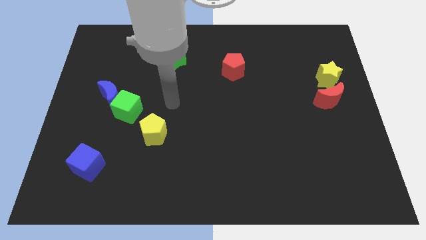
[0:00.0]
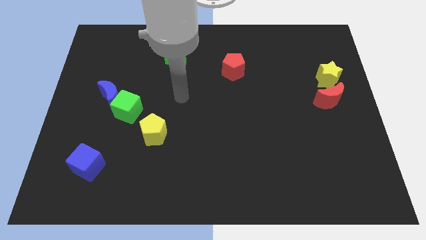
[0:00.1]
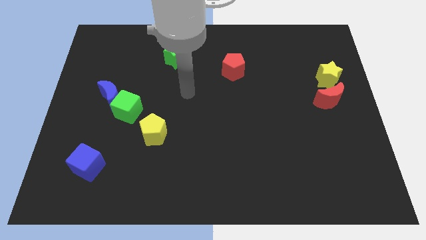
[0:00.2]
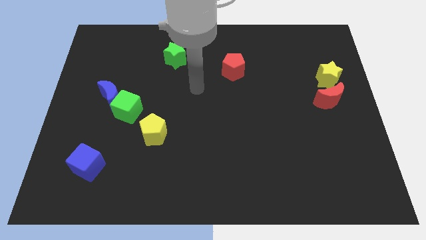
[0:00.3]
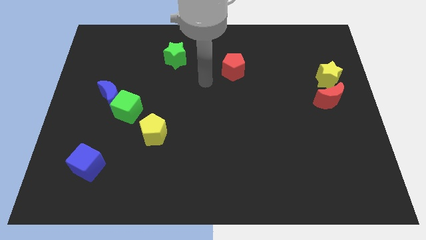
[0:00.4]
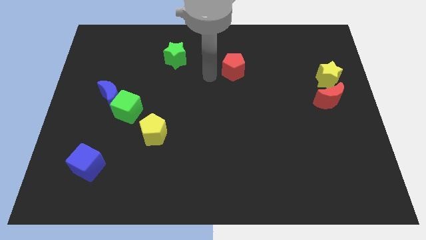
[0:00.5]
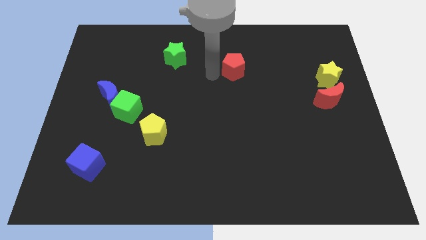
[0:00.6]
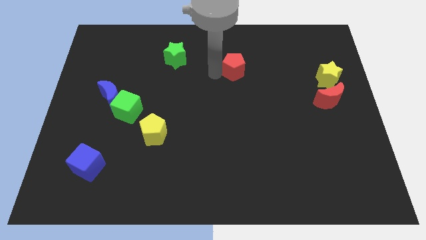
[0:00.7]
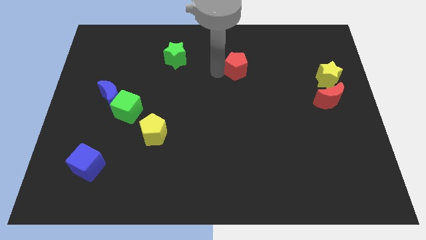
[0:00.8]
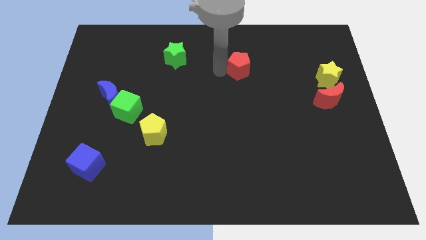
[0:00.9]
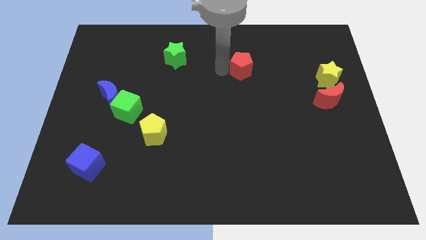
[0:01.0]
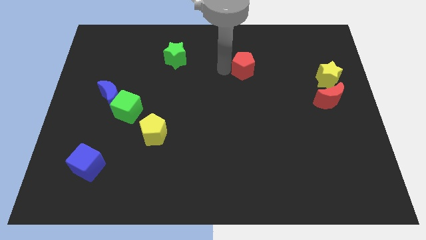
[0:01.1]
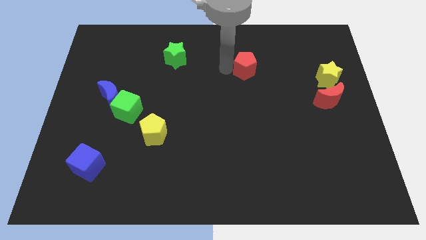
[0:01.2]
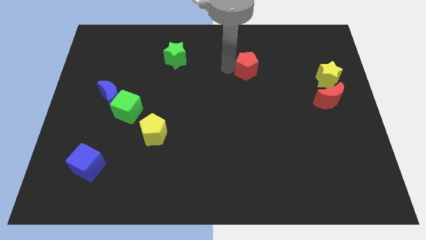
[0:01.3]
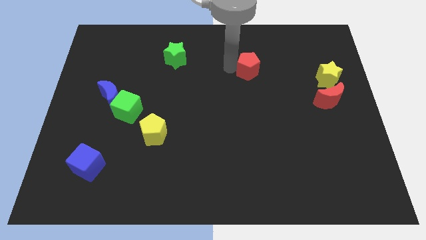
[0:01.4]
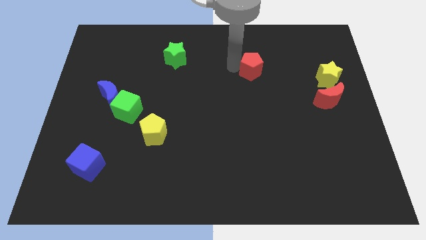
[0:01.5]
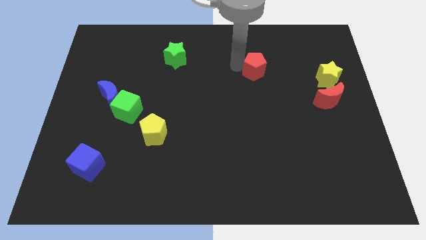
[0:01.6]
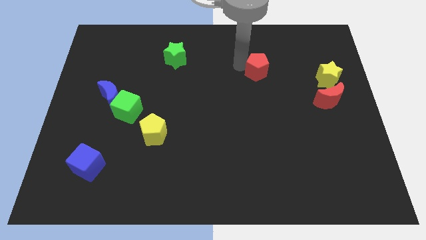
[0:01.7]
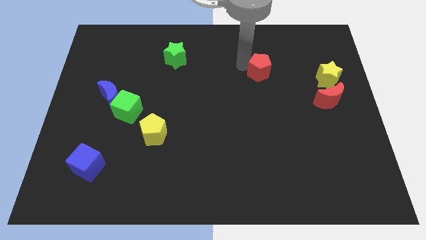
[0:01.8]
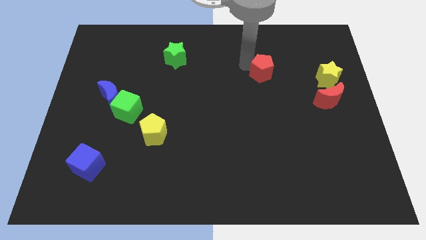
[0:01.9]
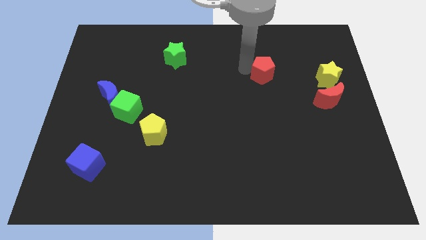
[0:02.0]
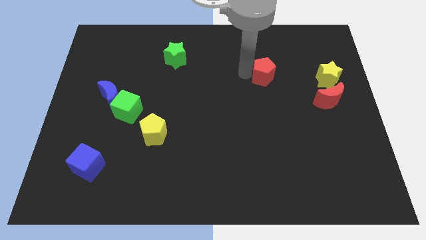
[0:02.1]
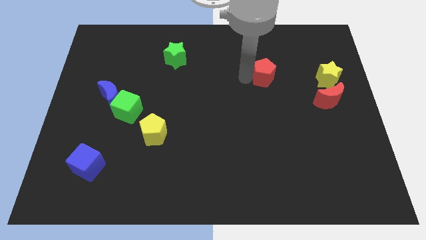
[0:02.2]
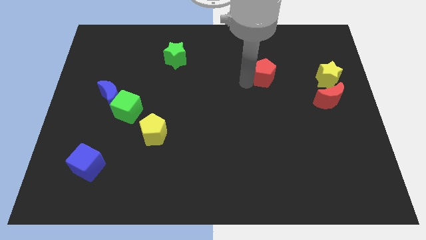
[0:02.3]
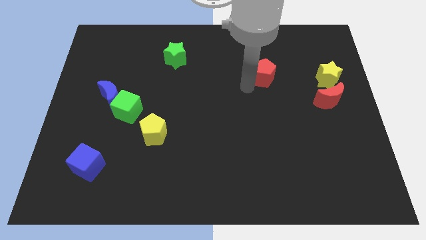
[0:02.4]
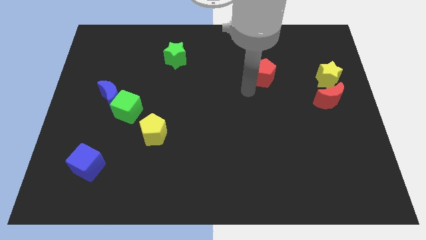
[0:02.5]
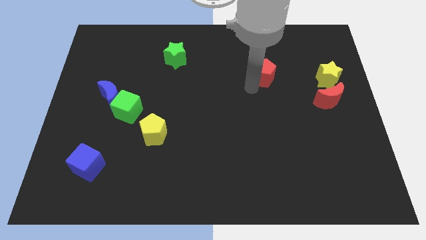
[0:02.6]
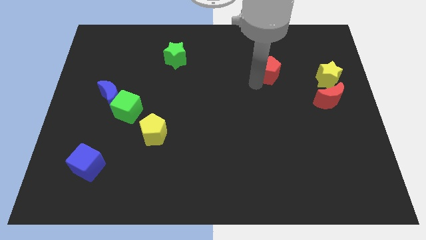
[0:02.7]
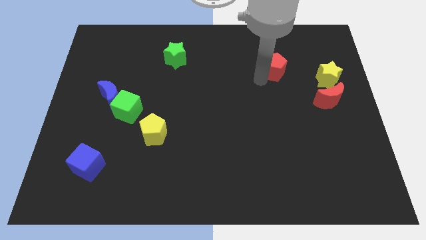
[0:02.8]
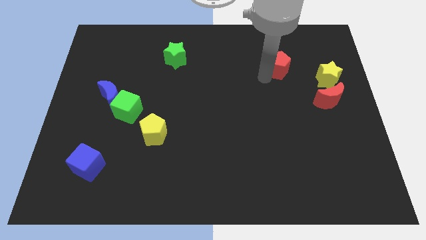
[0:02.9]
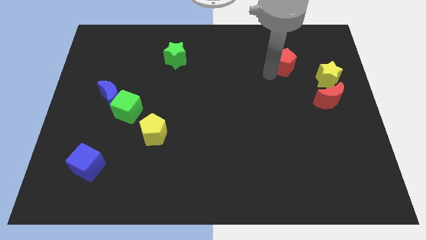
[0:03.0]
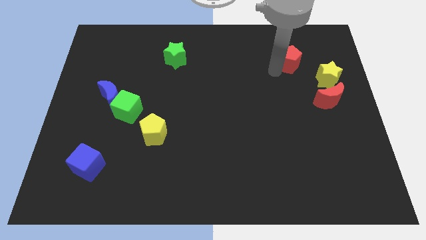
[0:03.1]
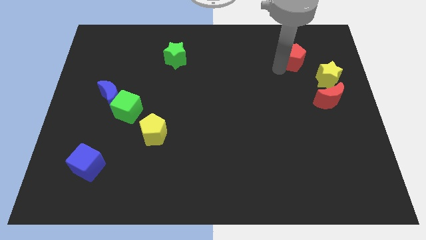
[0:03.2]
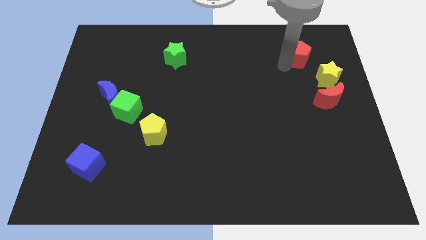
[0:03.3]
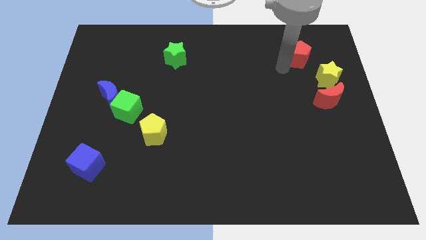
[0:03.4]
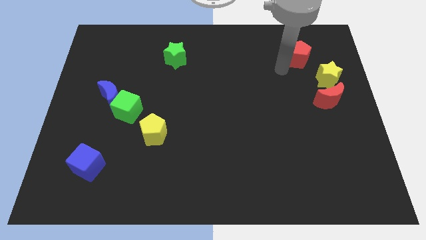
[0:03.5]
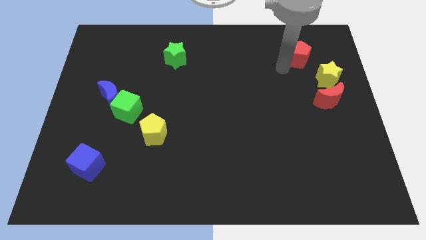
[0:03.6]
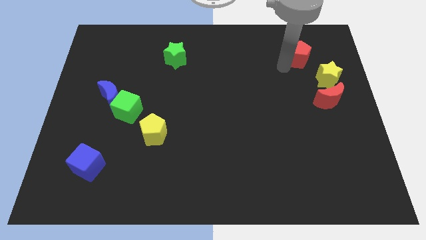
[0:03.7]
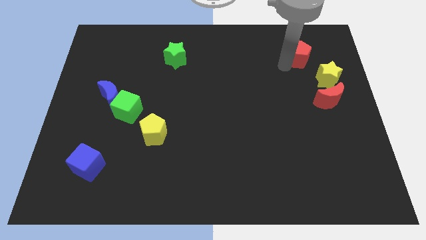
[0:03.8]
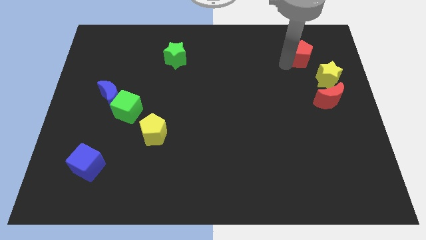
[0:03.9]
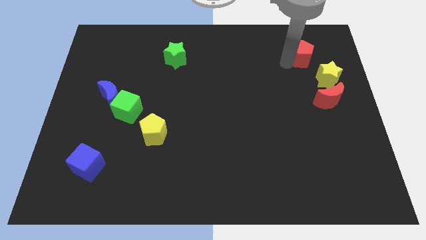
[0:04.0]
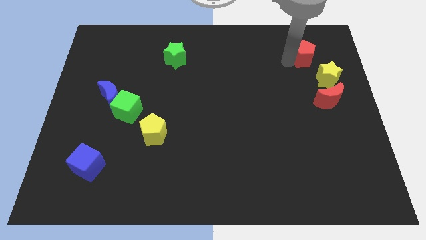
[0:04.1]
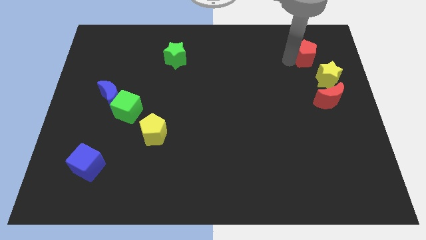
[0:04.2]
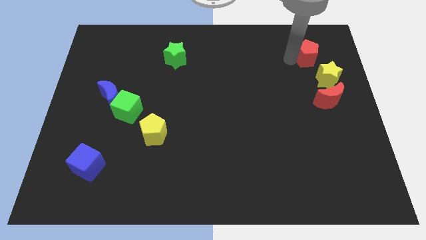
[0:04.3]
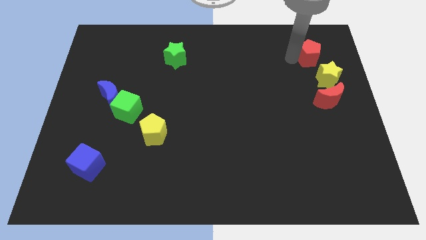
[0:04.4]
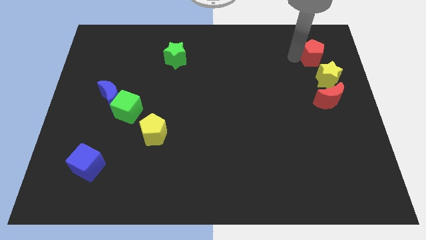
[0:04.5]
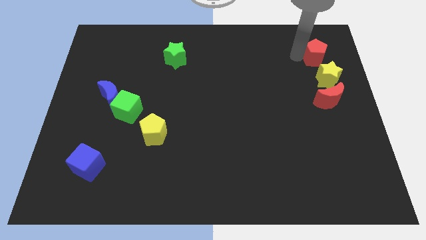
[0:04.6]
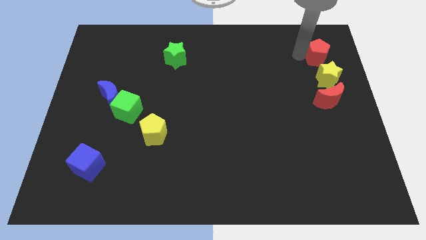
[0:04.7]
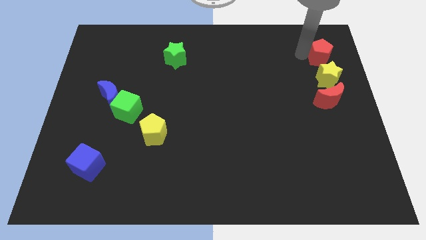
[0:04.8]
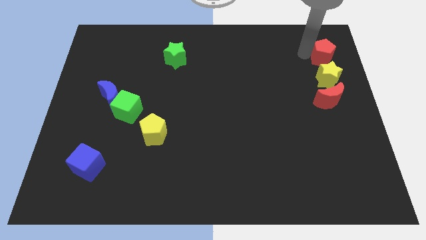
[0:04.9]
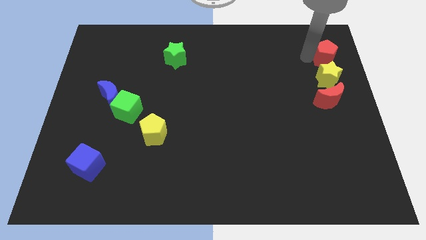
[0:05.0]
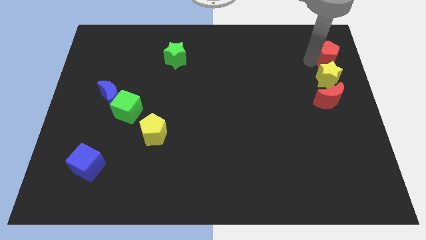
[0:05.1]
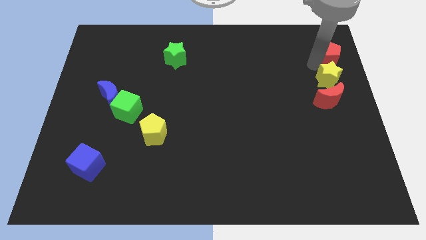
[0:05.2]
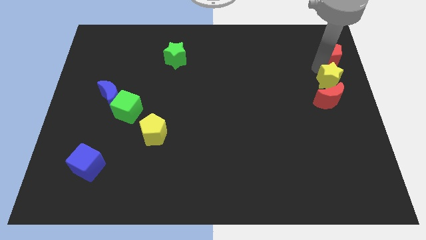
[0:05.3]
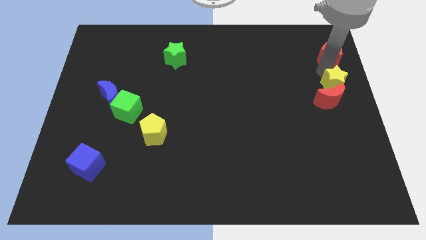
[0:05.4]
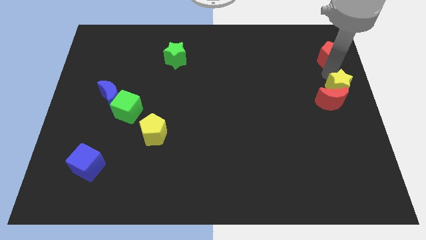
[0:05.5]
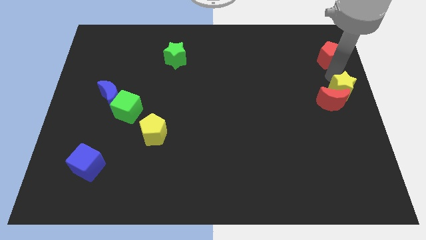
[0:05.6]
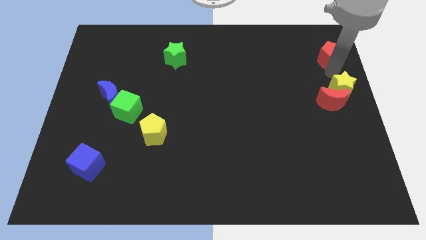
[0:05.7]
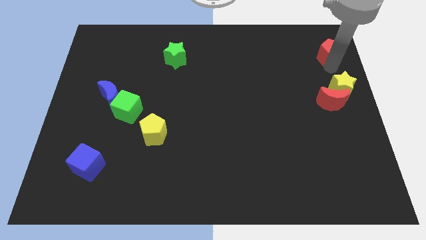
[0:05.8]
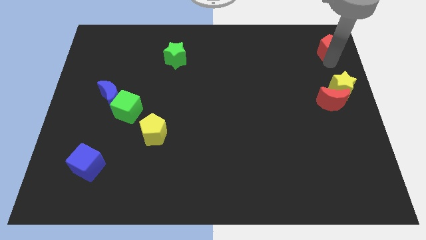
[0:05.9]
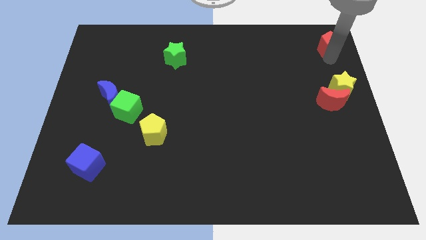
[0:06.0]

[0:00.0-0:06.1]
push the red pentagon to the top right
